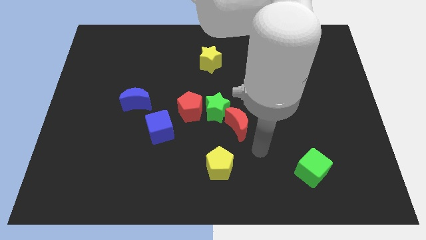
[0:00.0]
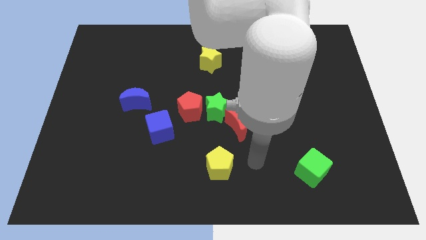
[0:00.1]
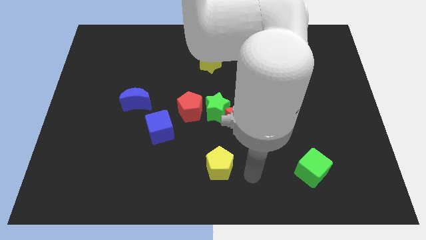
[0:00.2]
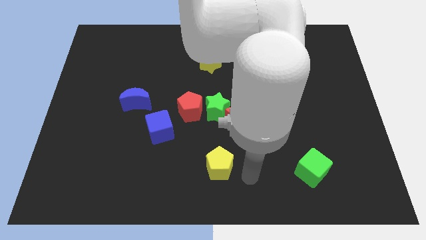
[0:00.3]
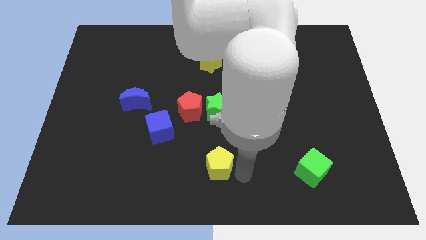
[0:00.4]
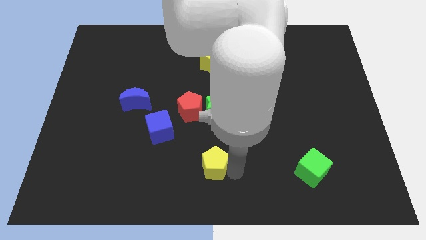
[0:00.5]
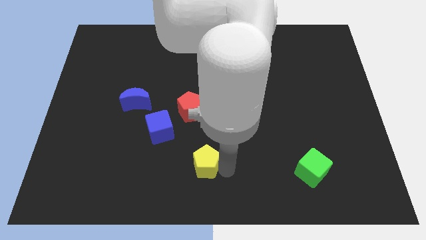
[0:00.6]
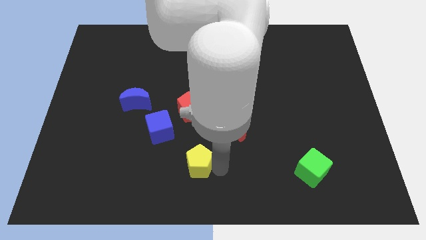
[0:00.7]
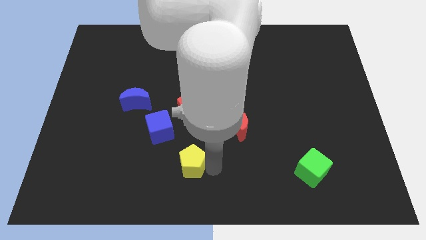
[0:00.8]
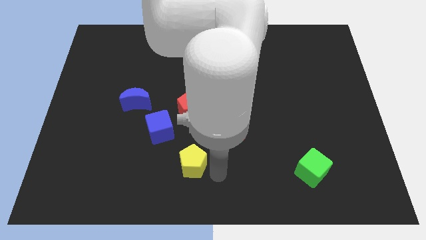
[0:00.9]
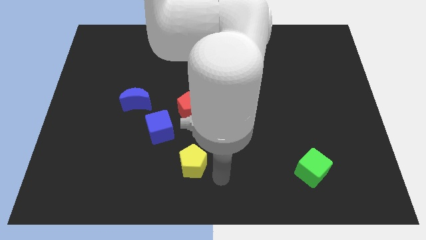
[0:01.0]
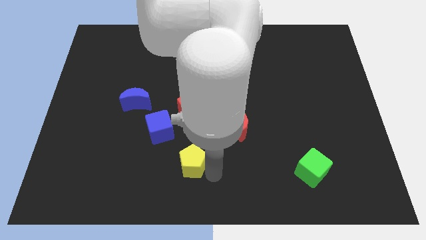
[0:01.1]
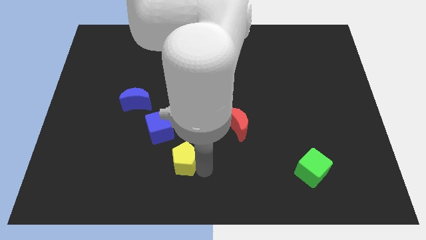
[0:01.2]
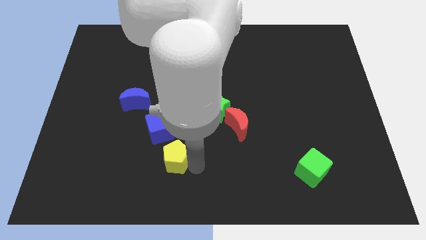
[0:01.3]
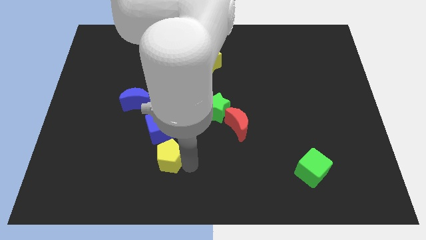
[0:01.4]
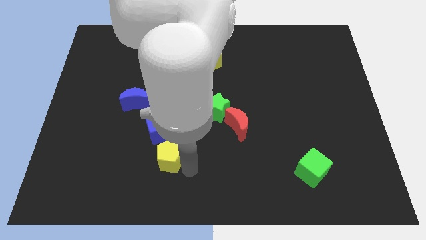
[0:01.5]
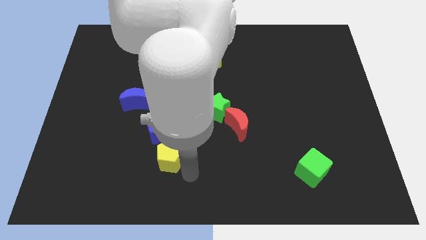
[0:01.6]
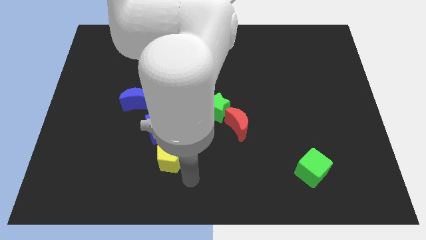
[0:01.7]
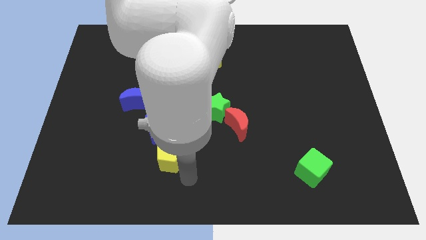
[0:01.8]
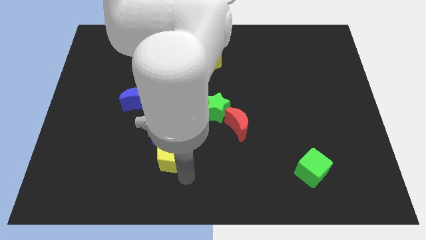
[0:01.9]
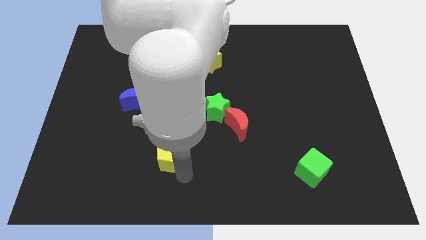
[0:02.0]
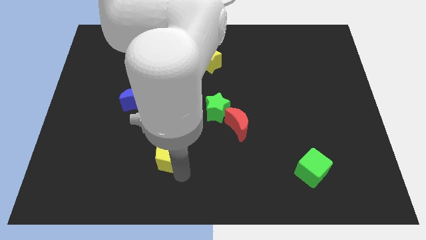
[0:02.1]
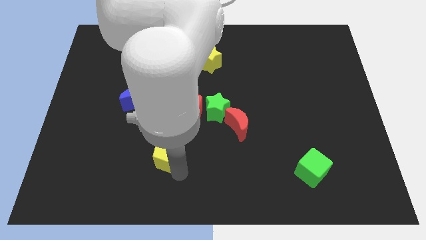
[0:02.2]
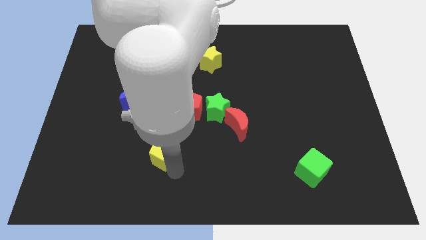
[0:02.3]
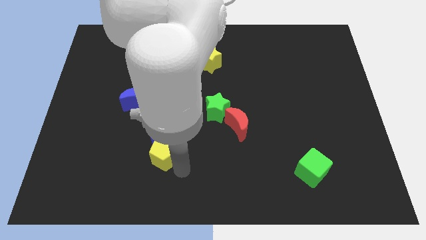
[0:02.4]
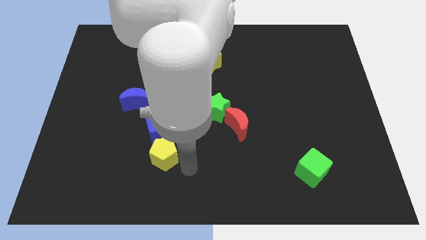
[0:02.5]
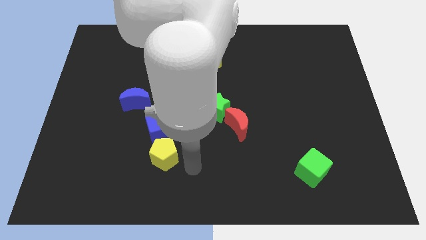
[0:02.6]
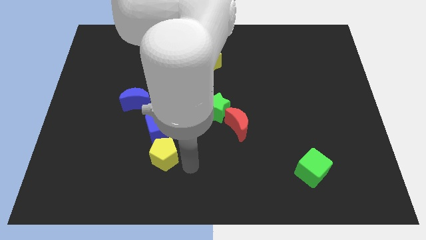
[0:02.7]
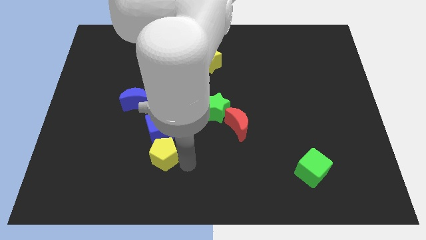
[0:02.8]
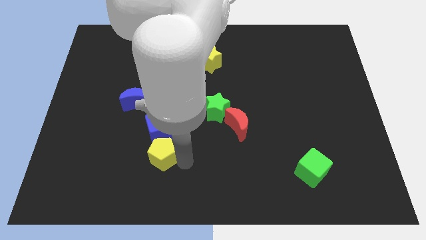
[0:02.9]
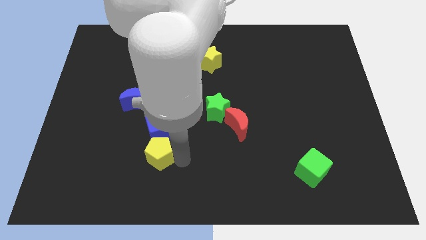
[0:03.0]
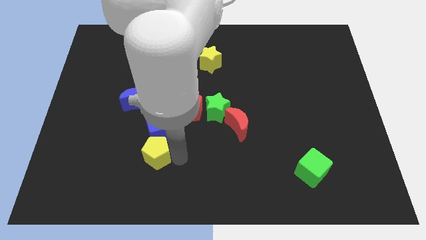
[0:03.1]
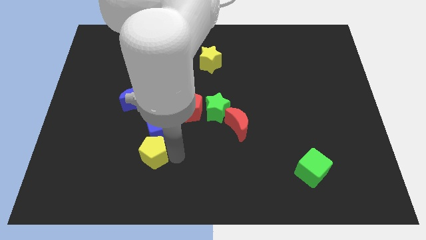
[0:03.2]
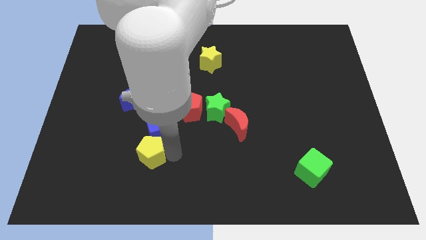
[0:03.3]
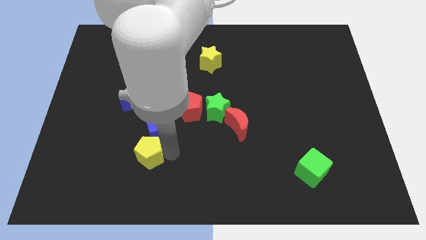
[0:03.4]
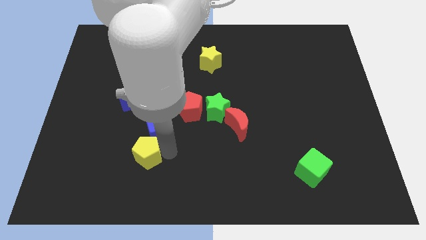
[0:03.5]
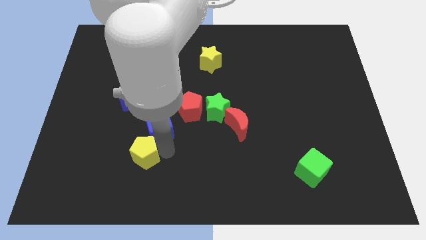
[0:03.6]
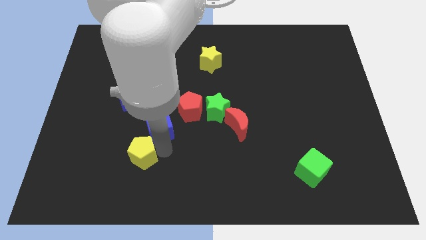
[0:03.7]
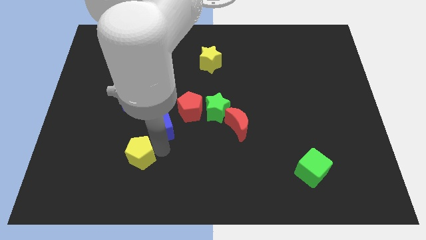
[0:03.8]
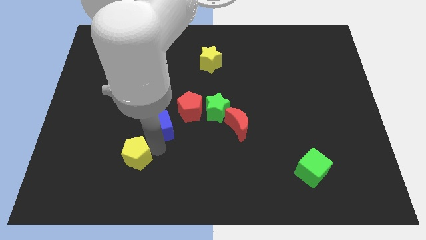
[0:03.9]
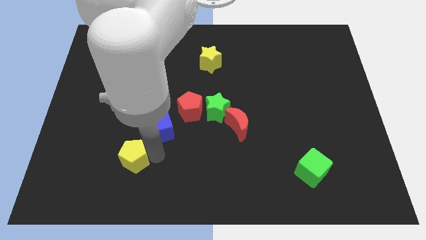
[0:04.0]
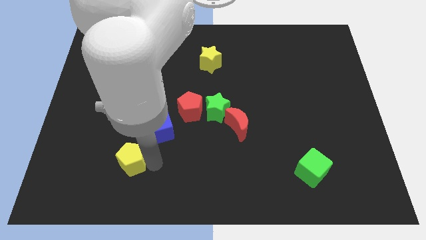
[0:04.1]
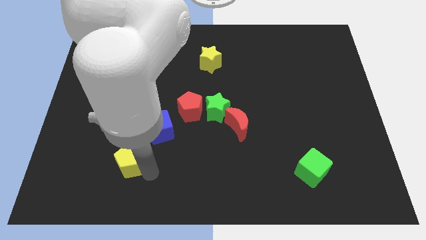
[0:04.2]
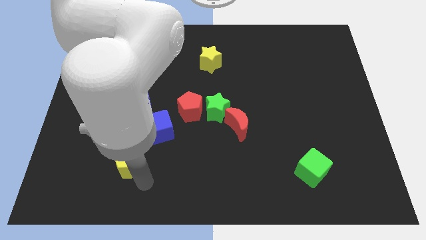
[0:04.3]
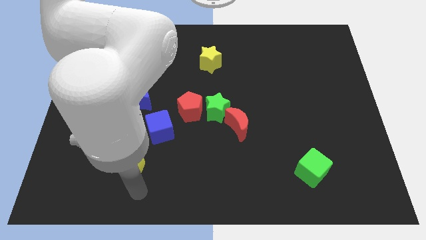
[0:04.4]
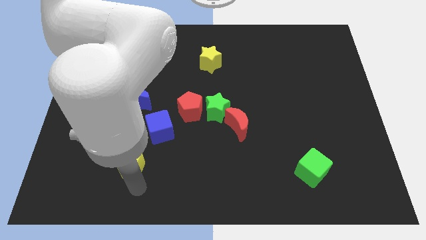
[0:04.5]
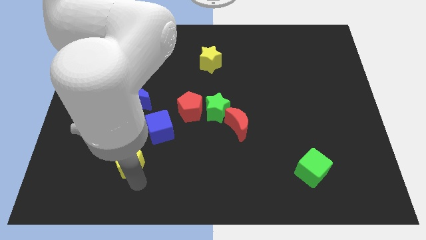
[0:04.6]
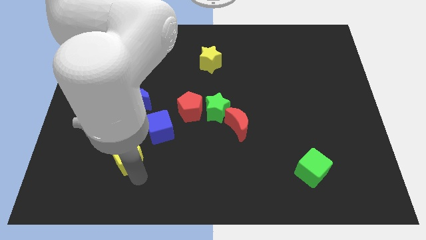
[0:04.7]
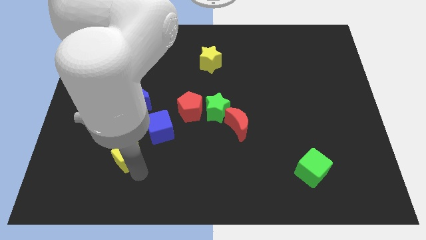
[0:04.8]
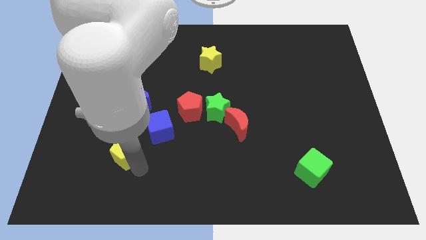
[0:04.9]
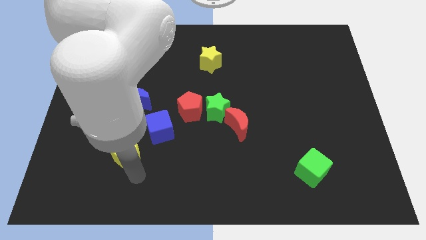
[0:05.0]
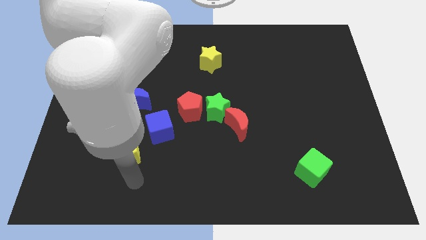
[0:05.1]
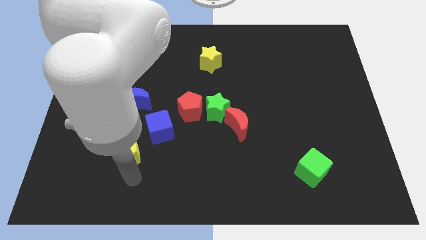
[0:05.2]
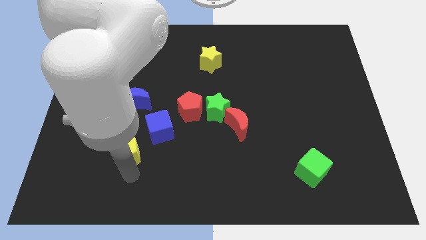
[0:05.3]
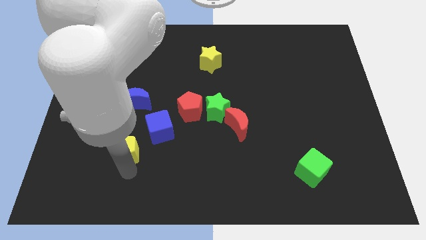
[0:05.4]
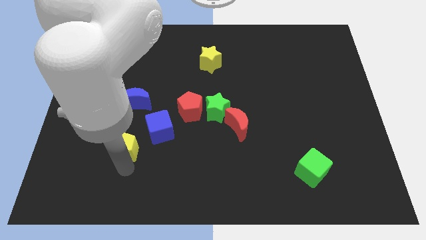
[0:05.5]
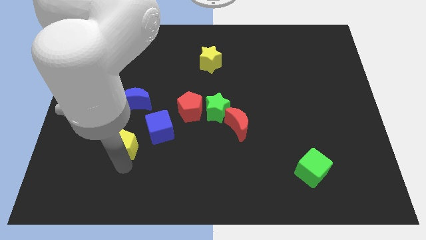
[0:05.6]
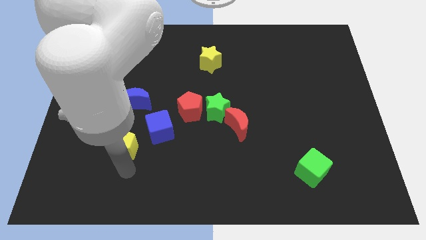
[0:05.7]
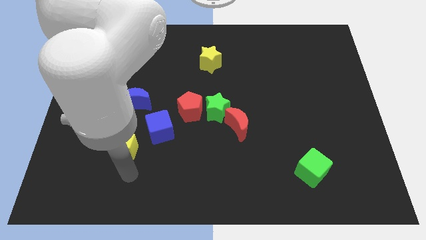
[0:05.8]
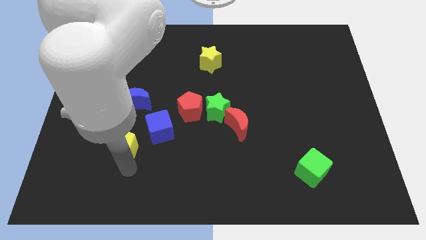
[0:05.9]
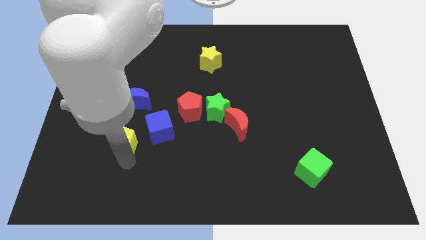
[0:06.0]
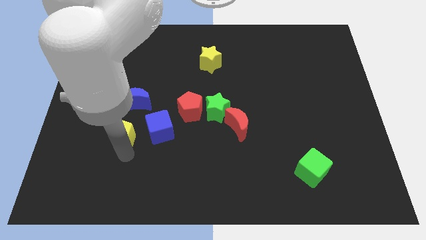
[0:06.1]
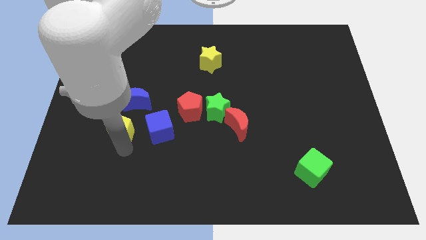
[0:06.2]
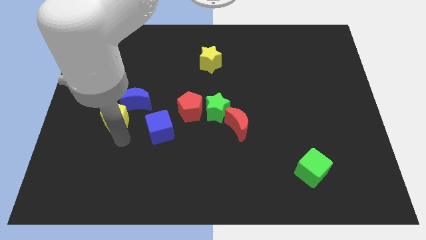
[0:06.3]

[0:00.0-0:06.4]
slide the yellow pentagon upwards and then to the left

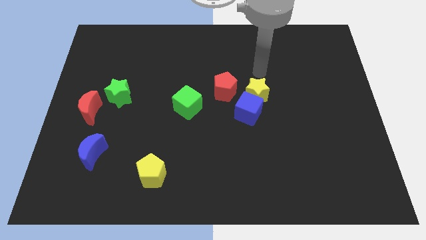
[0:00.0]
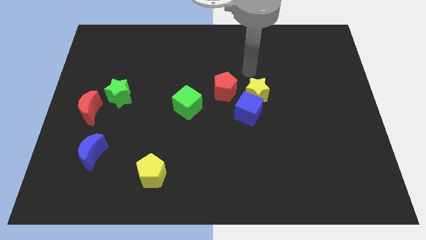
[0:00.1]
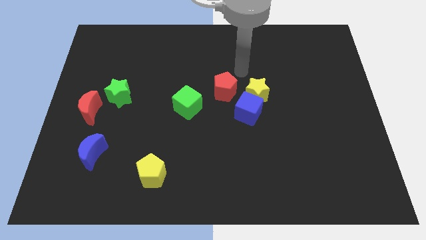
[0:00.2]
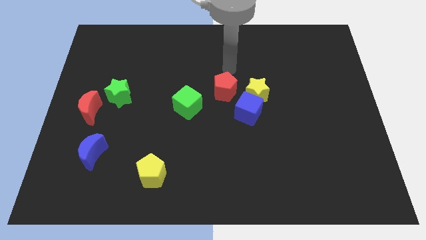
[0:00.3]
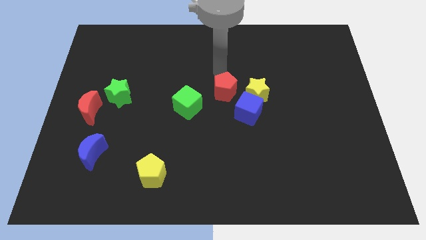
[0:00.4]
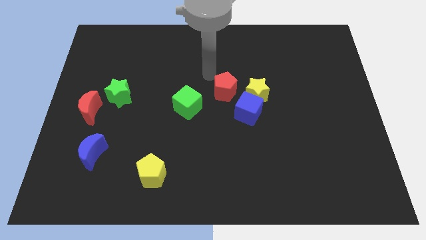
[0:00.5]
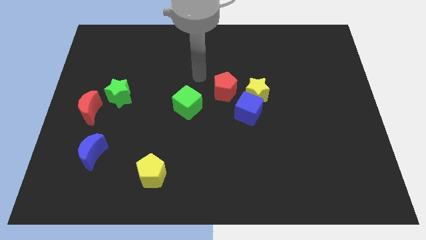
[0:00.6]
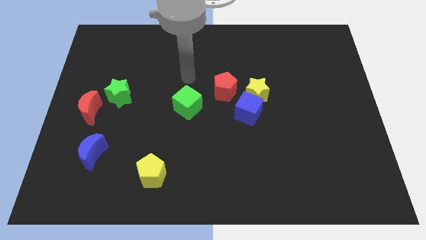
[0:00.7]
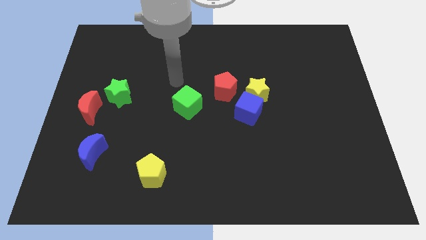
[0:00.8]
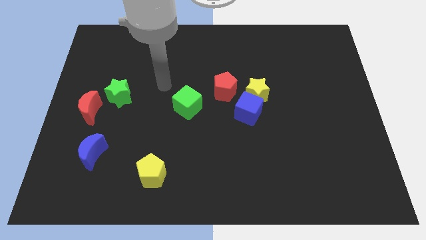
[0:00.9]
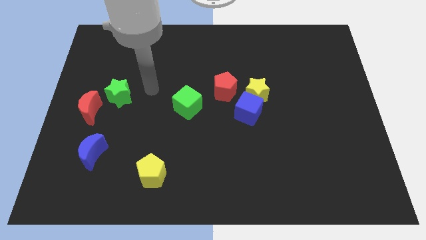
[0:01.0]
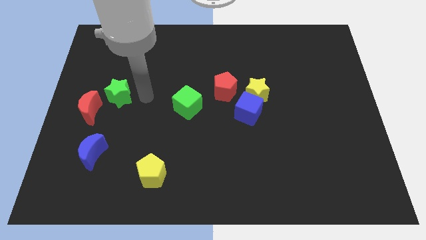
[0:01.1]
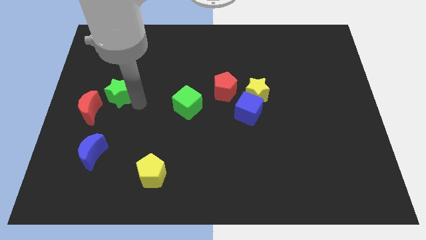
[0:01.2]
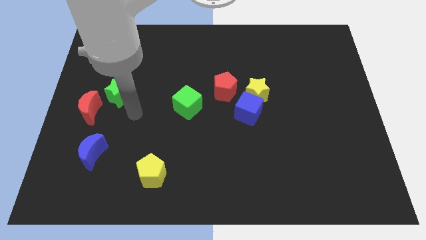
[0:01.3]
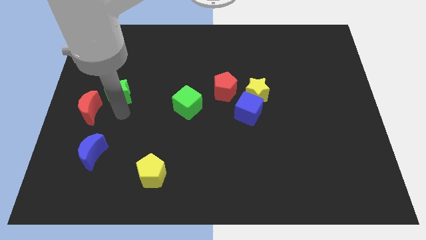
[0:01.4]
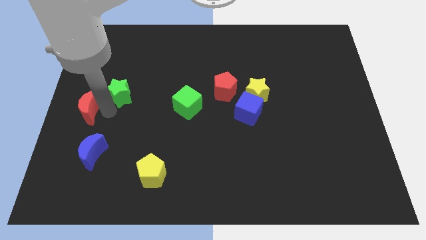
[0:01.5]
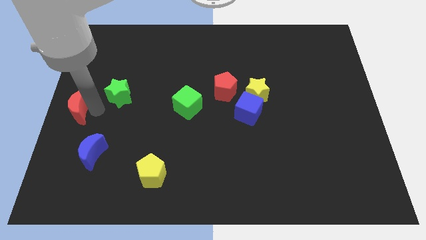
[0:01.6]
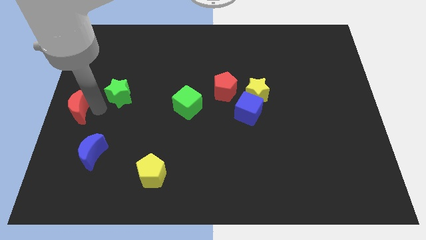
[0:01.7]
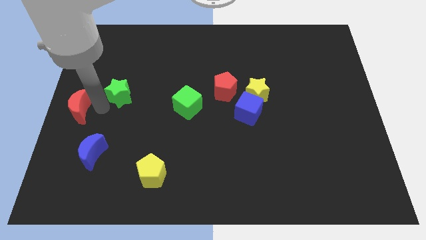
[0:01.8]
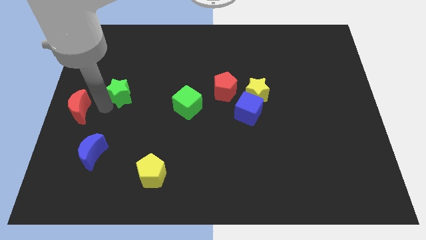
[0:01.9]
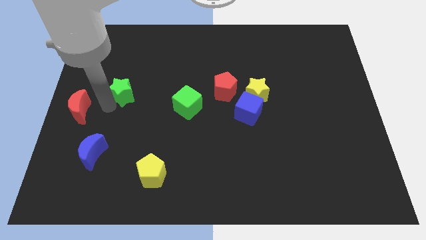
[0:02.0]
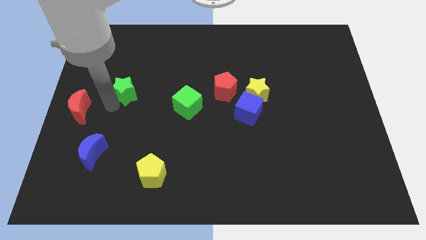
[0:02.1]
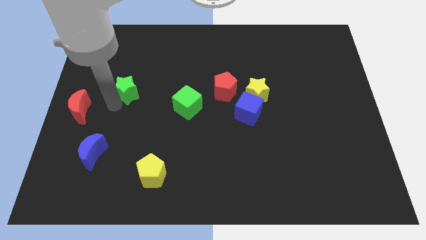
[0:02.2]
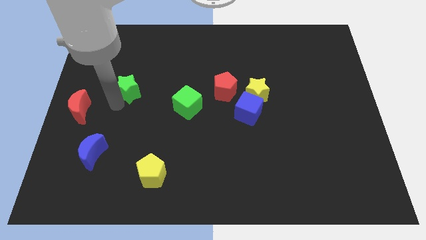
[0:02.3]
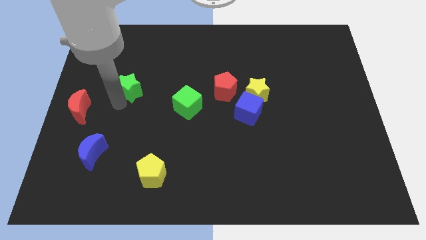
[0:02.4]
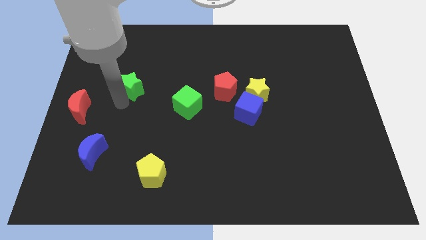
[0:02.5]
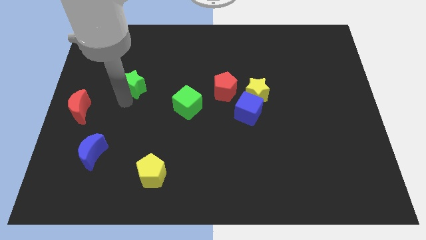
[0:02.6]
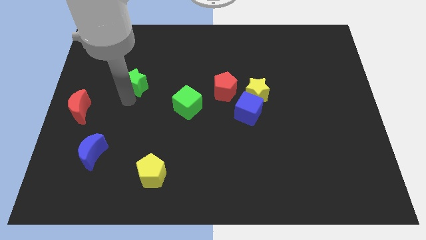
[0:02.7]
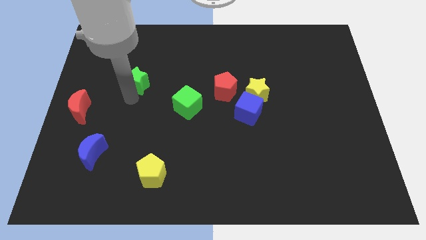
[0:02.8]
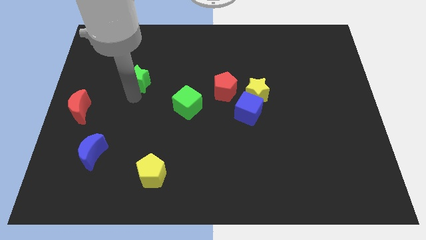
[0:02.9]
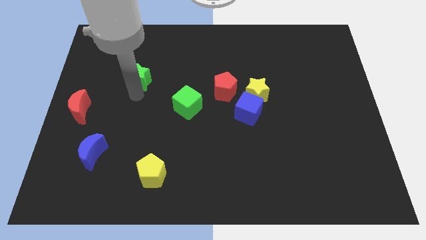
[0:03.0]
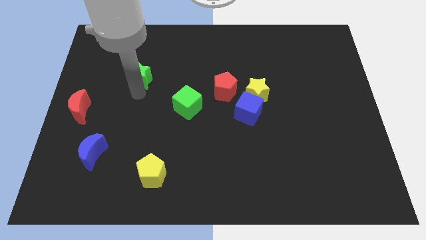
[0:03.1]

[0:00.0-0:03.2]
slightly move the green star upwards and right diagonally
